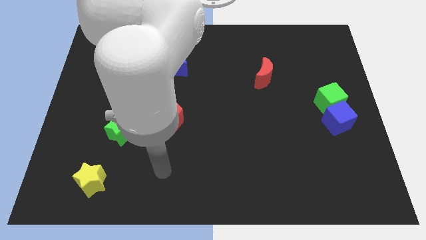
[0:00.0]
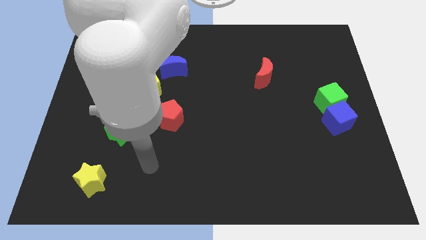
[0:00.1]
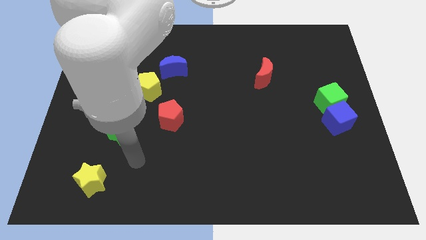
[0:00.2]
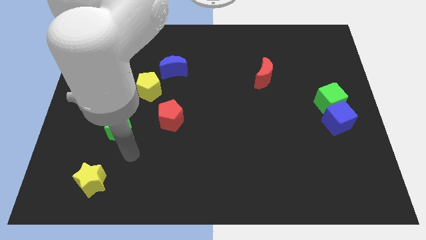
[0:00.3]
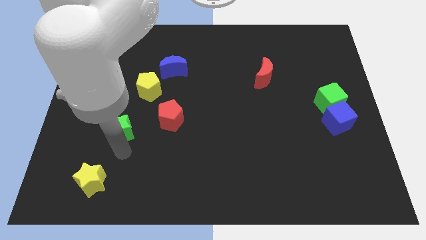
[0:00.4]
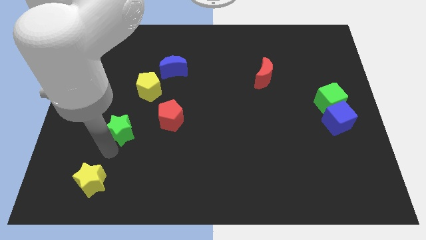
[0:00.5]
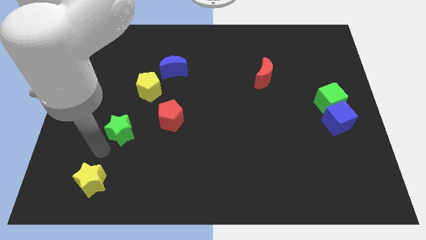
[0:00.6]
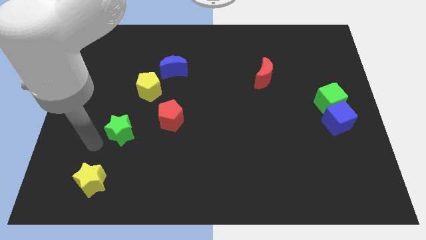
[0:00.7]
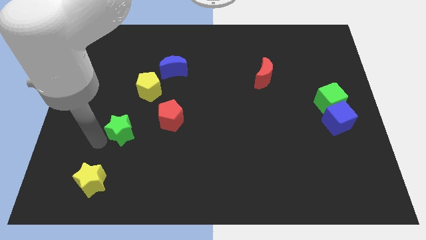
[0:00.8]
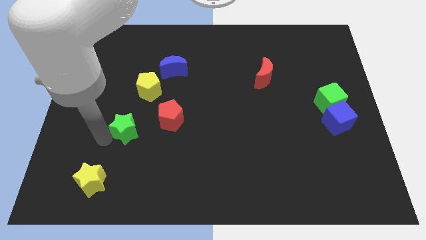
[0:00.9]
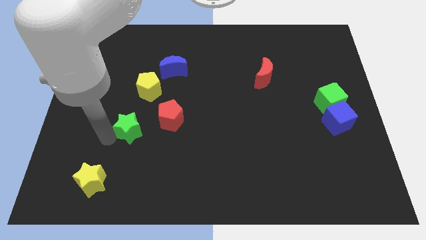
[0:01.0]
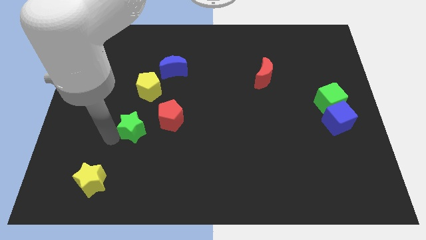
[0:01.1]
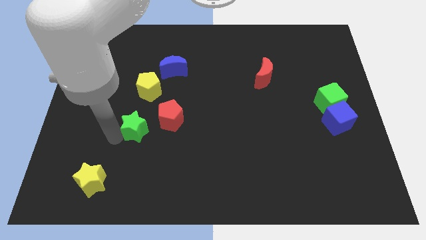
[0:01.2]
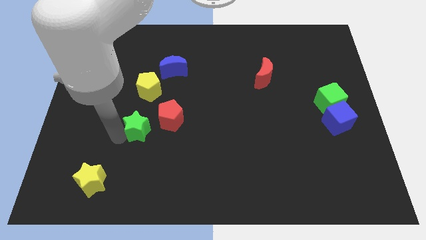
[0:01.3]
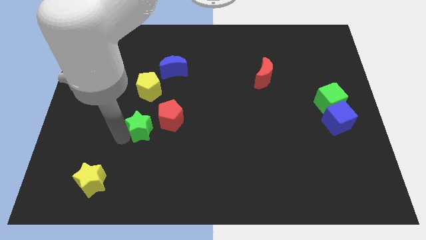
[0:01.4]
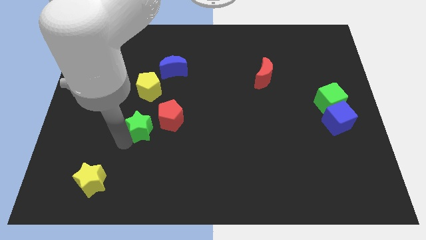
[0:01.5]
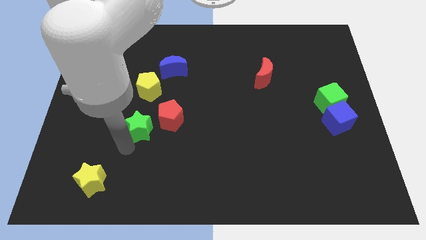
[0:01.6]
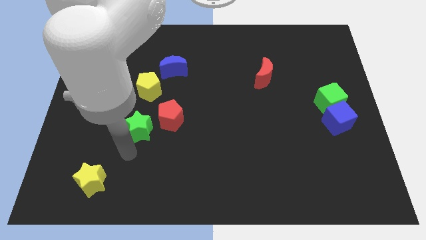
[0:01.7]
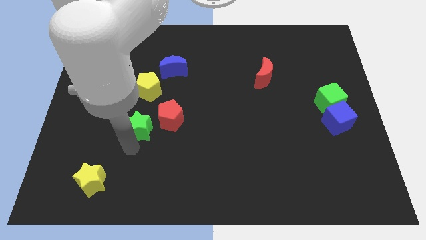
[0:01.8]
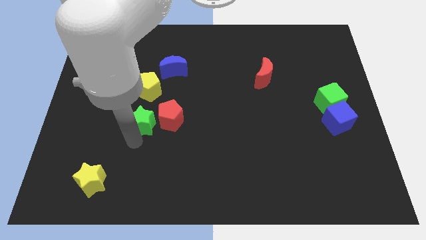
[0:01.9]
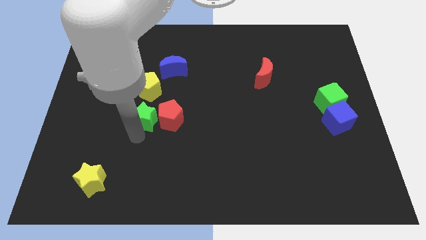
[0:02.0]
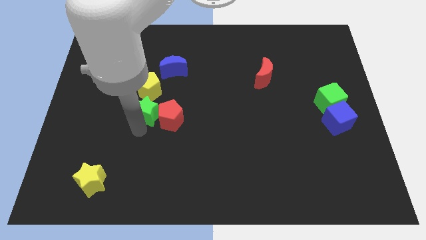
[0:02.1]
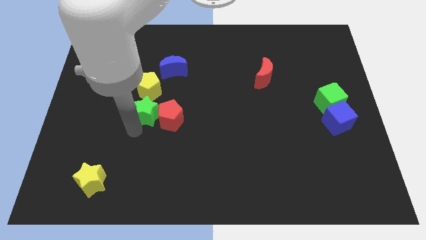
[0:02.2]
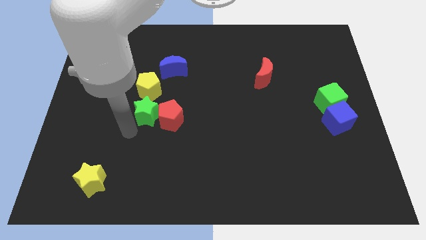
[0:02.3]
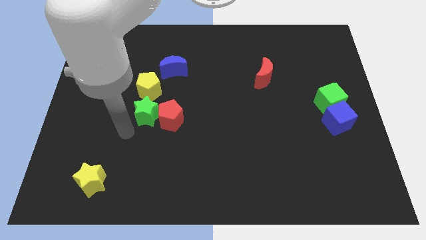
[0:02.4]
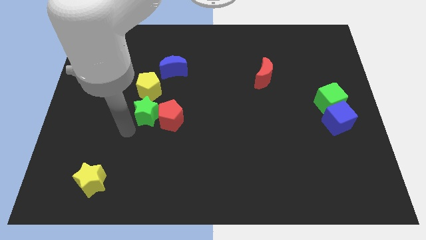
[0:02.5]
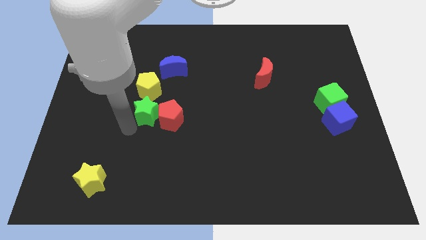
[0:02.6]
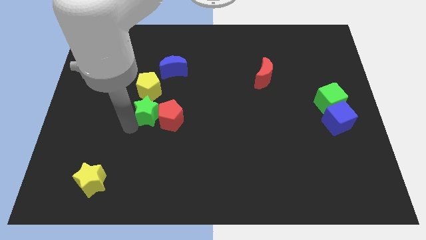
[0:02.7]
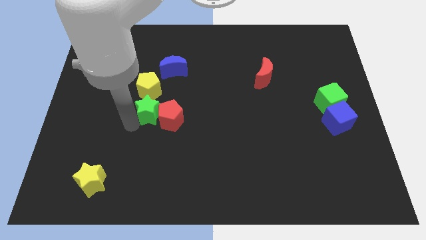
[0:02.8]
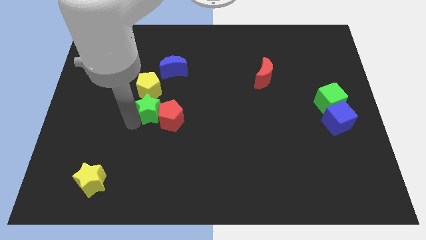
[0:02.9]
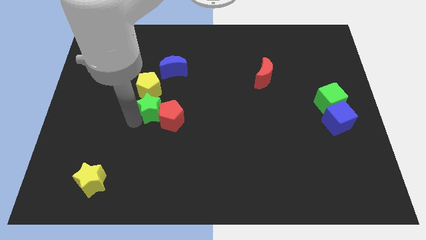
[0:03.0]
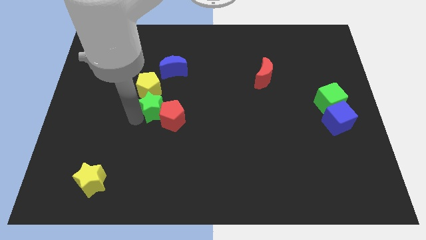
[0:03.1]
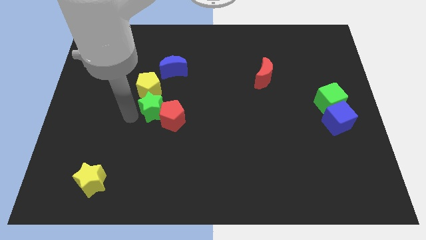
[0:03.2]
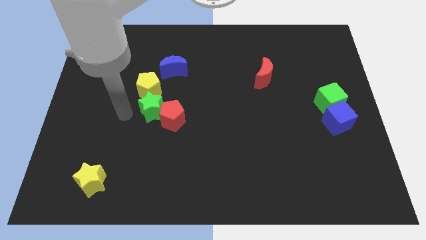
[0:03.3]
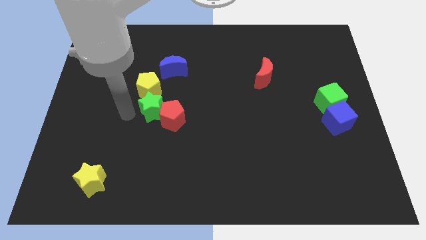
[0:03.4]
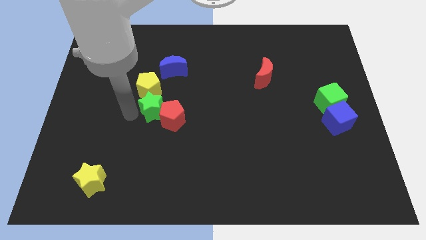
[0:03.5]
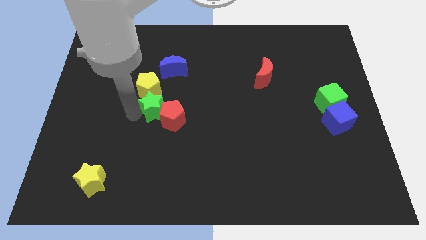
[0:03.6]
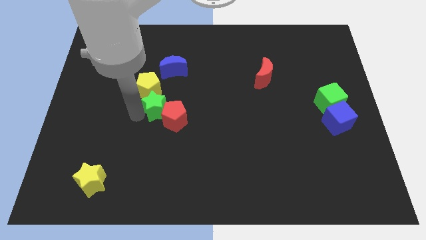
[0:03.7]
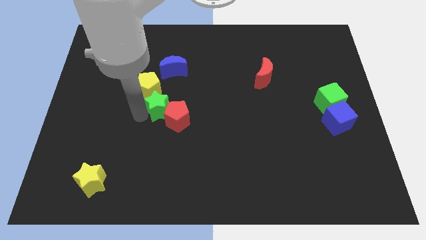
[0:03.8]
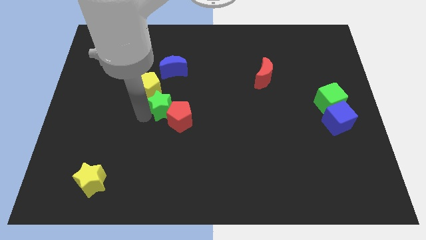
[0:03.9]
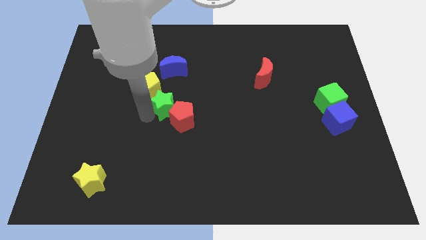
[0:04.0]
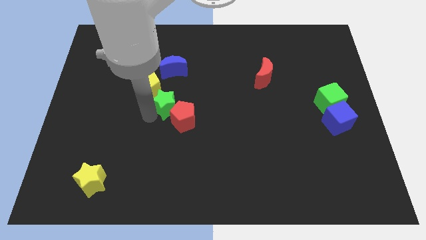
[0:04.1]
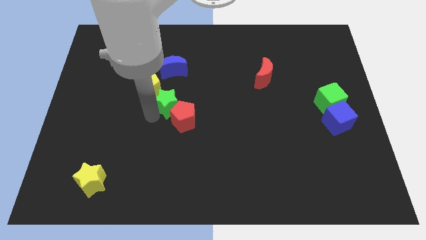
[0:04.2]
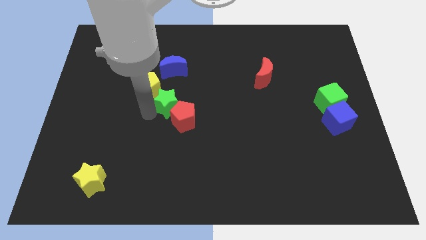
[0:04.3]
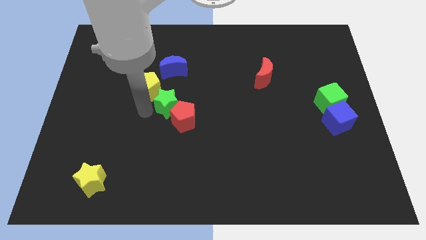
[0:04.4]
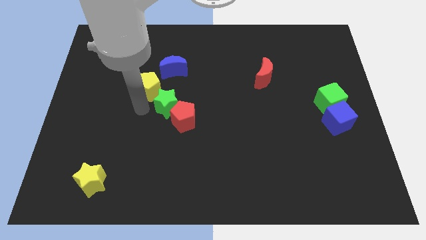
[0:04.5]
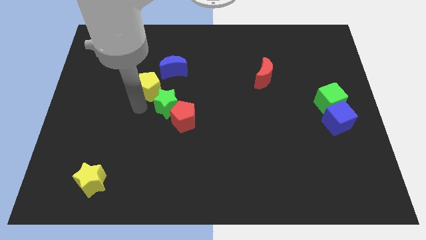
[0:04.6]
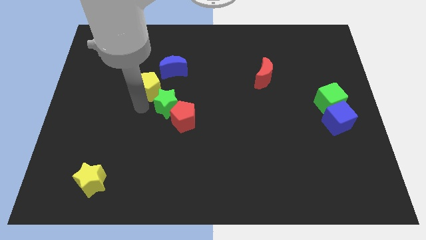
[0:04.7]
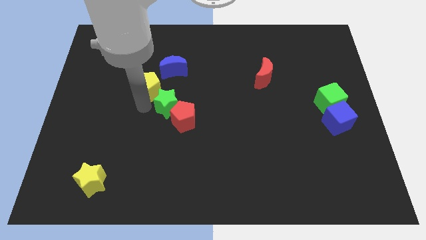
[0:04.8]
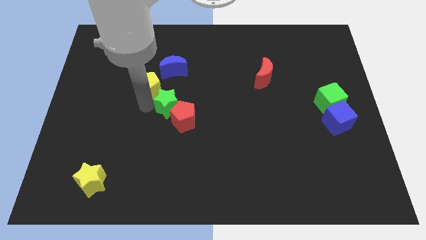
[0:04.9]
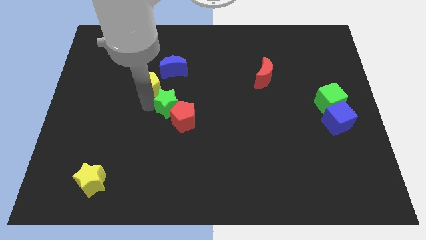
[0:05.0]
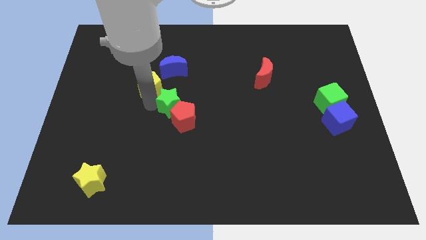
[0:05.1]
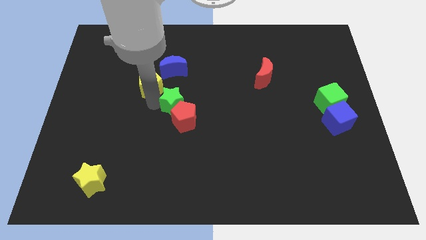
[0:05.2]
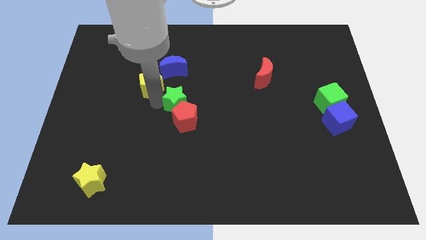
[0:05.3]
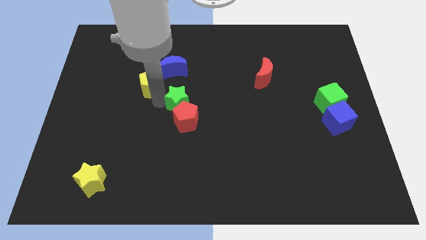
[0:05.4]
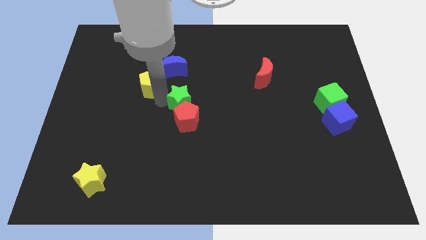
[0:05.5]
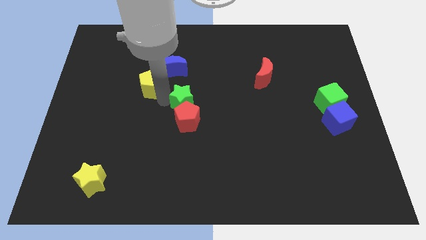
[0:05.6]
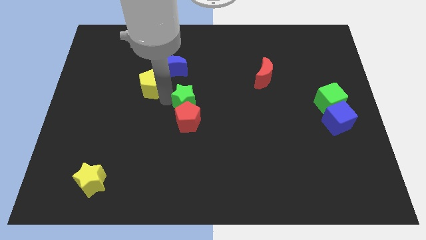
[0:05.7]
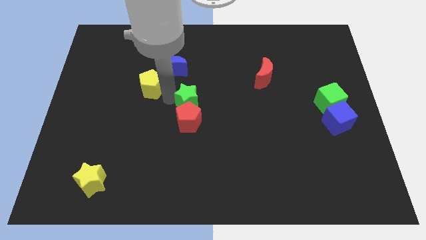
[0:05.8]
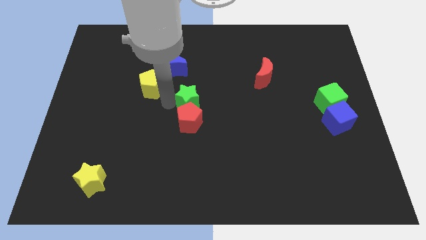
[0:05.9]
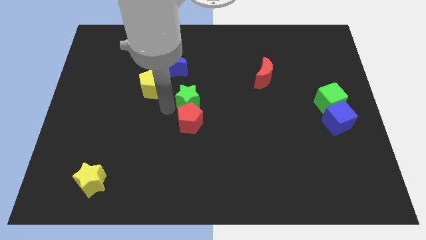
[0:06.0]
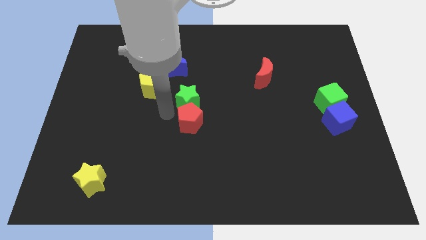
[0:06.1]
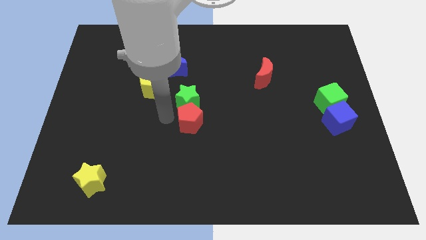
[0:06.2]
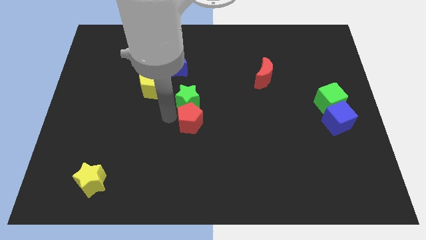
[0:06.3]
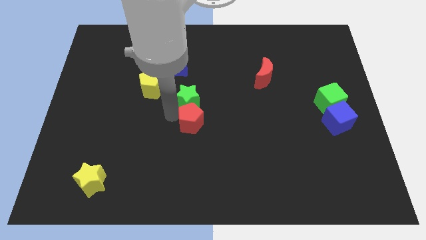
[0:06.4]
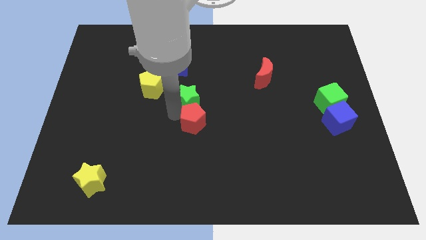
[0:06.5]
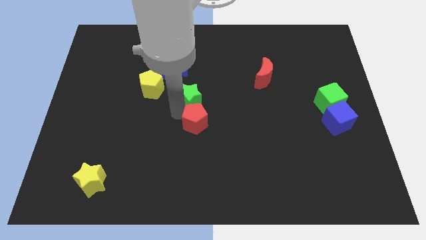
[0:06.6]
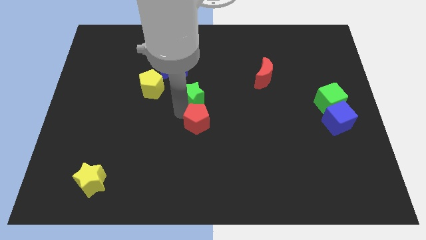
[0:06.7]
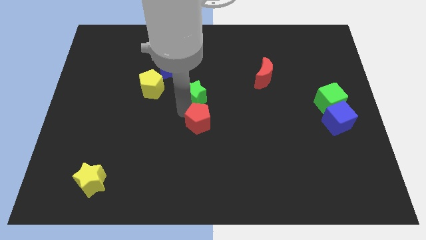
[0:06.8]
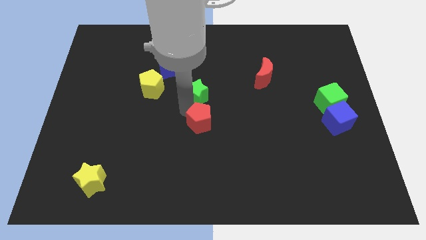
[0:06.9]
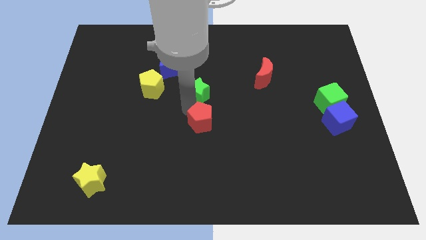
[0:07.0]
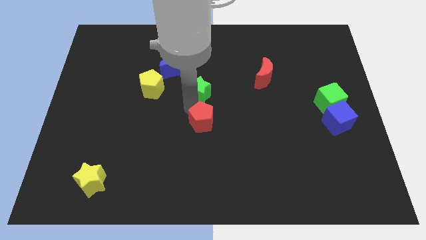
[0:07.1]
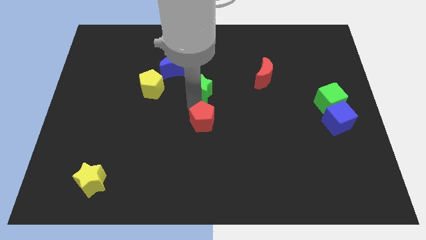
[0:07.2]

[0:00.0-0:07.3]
slide the green star up and right

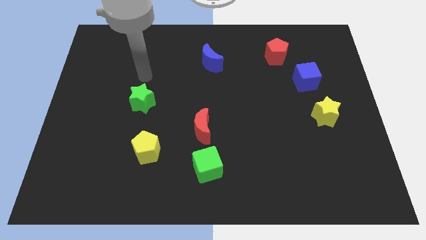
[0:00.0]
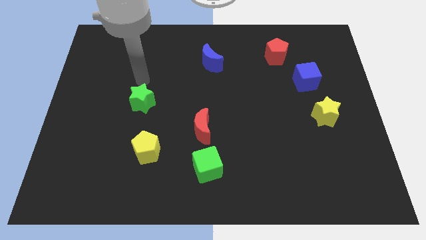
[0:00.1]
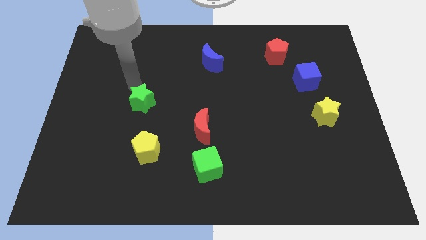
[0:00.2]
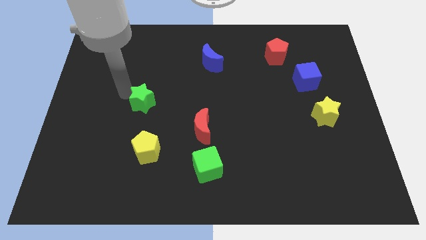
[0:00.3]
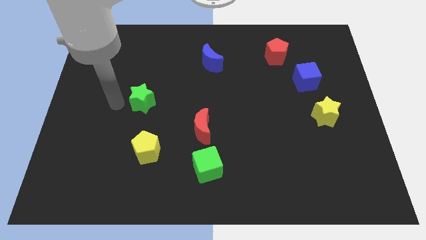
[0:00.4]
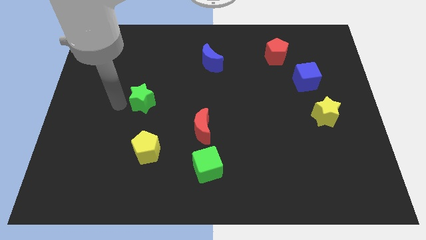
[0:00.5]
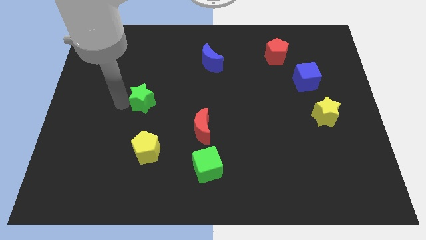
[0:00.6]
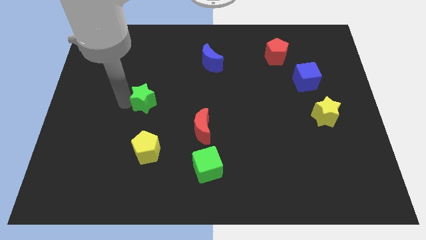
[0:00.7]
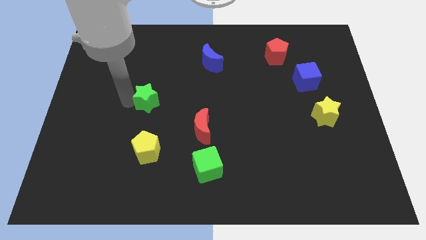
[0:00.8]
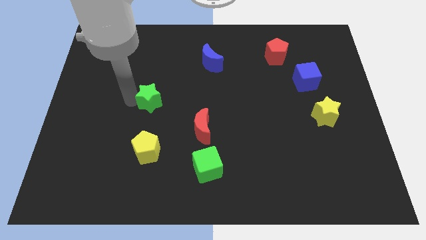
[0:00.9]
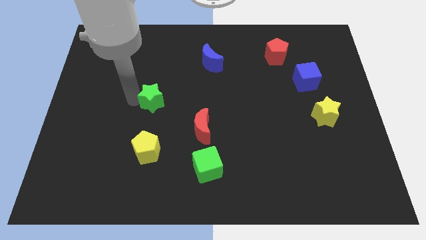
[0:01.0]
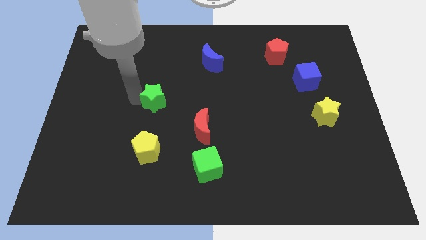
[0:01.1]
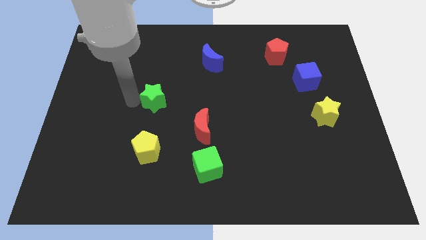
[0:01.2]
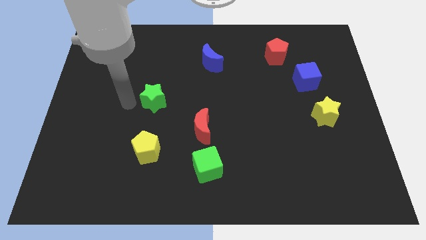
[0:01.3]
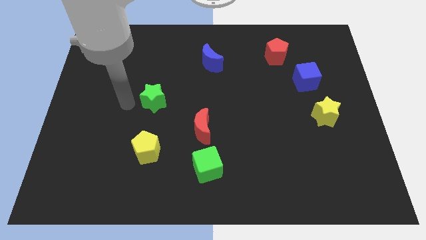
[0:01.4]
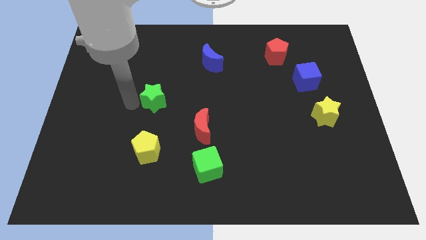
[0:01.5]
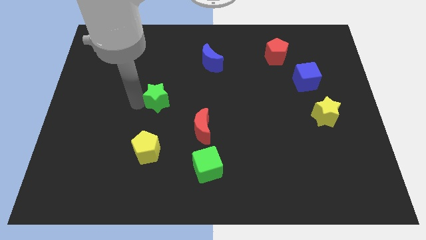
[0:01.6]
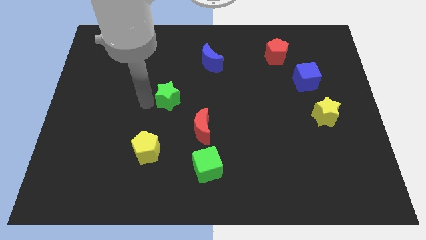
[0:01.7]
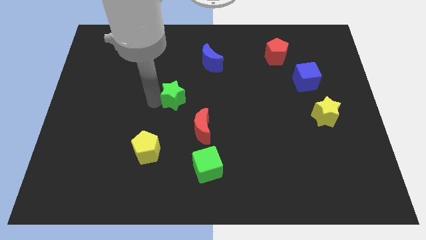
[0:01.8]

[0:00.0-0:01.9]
move the green star right a little bit
